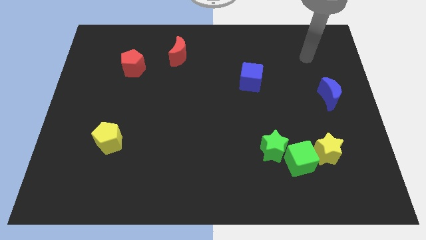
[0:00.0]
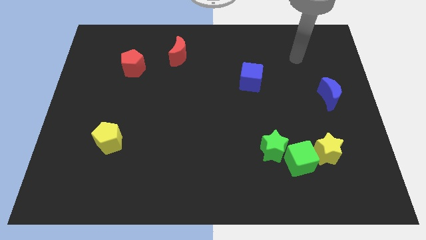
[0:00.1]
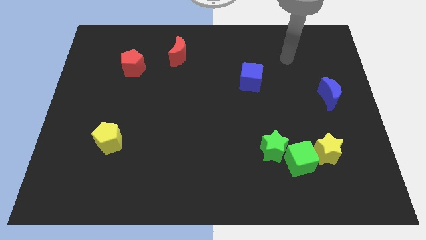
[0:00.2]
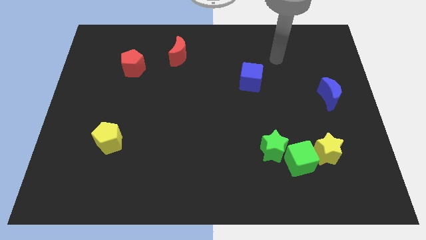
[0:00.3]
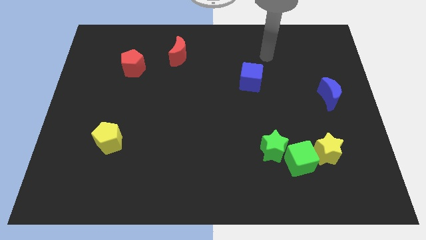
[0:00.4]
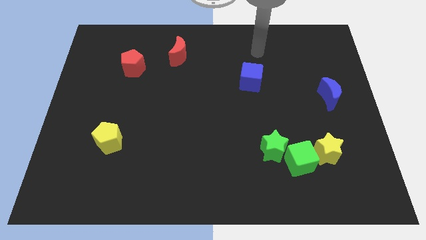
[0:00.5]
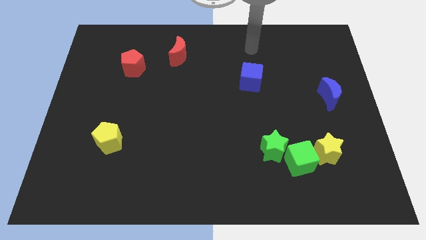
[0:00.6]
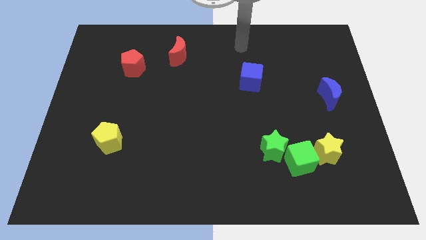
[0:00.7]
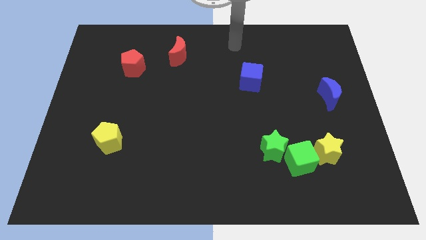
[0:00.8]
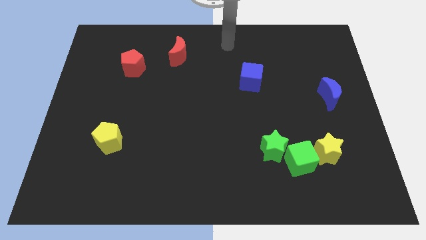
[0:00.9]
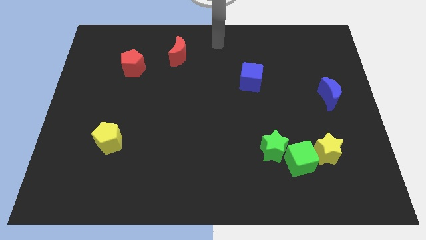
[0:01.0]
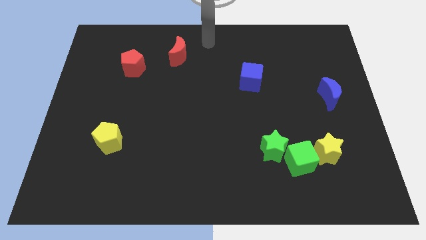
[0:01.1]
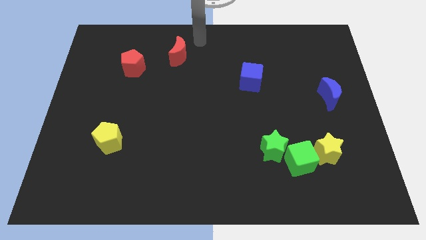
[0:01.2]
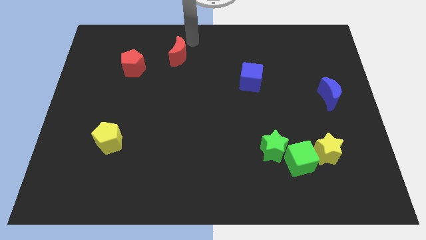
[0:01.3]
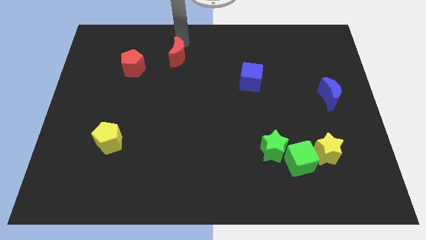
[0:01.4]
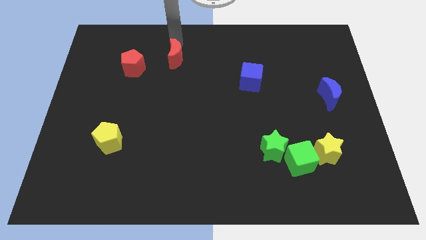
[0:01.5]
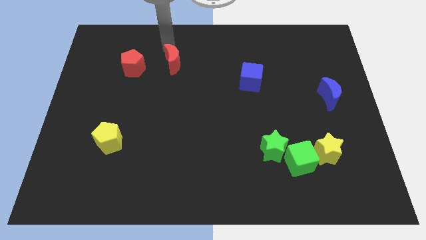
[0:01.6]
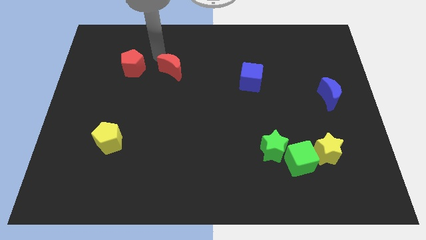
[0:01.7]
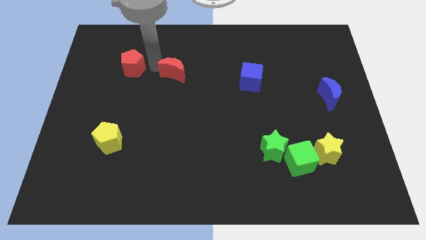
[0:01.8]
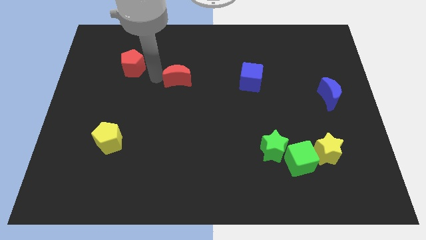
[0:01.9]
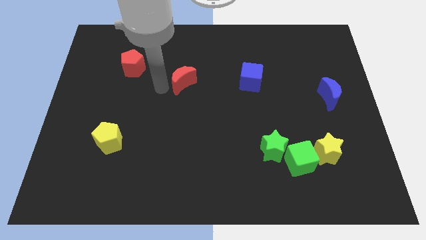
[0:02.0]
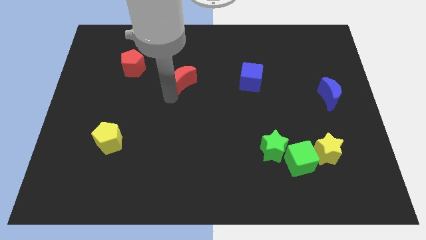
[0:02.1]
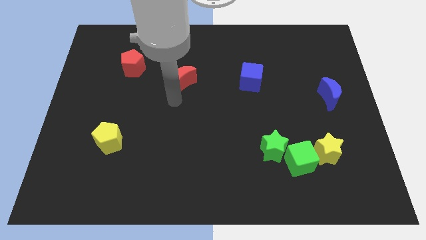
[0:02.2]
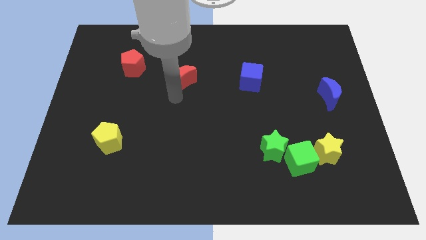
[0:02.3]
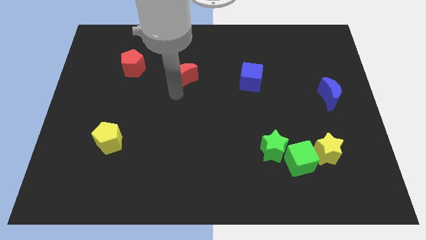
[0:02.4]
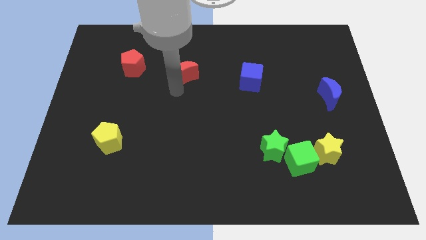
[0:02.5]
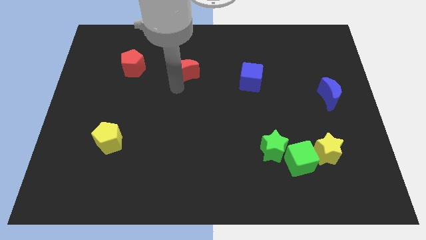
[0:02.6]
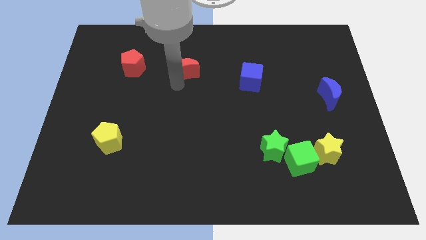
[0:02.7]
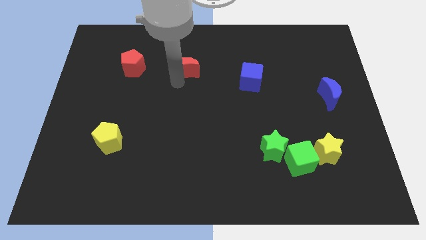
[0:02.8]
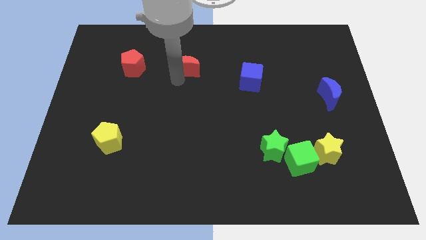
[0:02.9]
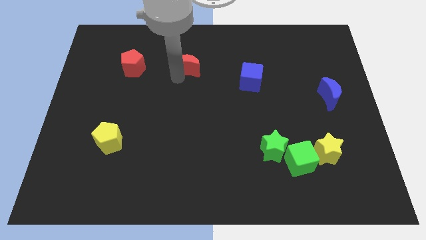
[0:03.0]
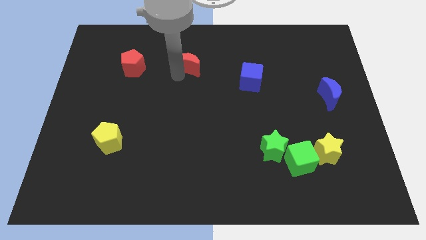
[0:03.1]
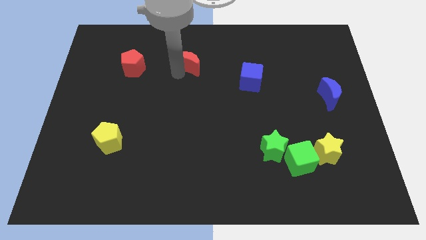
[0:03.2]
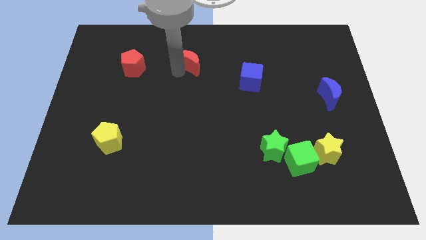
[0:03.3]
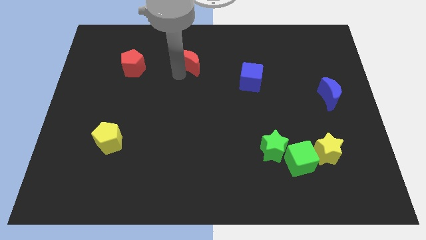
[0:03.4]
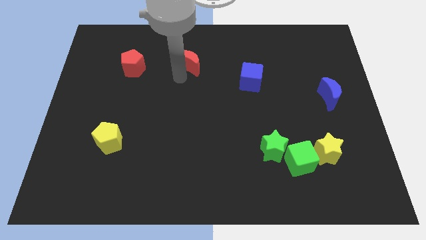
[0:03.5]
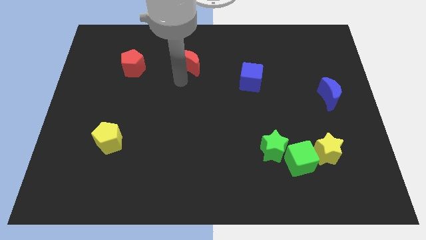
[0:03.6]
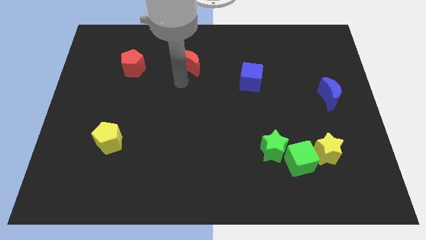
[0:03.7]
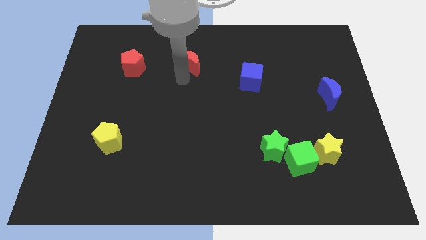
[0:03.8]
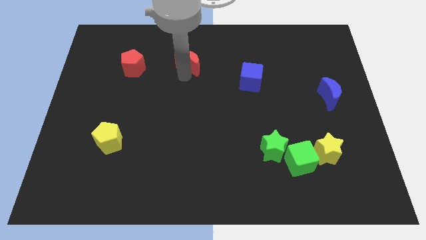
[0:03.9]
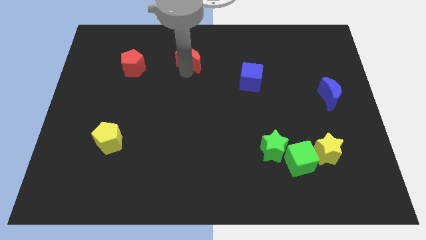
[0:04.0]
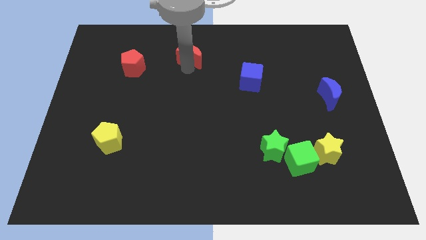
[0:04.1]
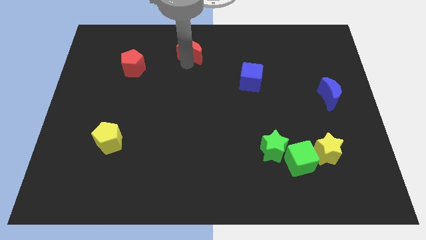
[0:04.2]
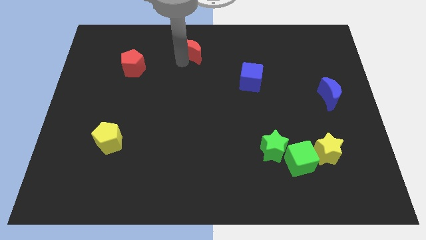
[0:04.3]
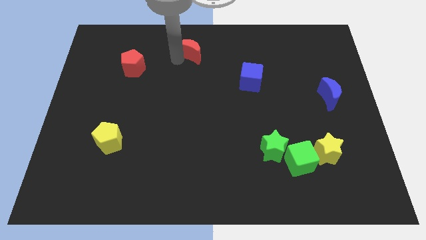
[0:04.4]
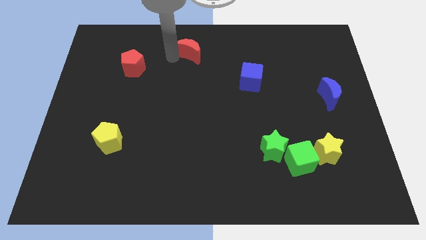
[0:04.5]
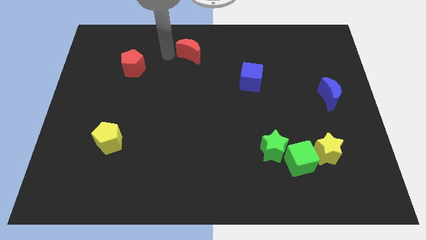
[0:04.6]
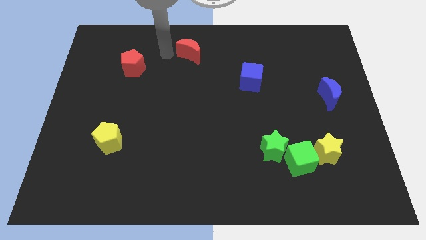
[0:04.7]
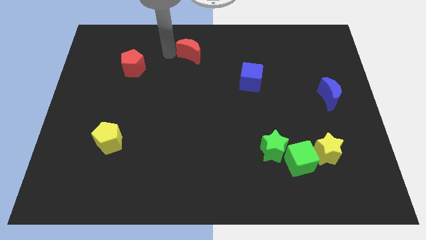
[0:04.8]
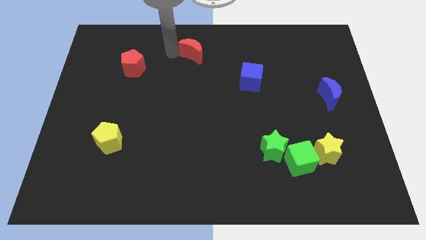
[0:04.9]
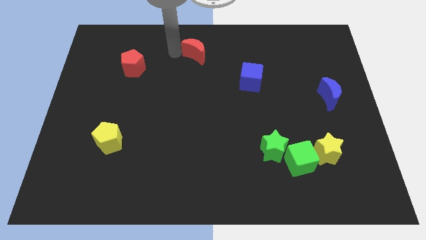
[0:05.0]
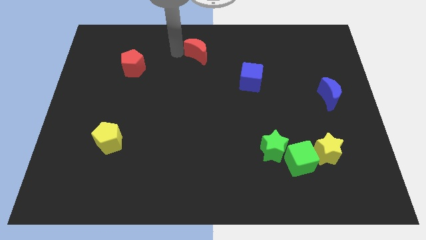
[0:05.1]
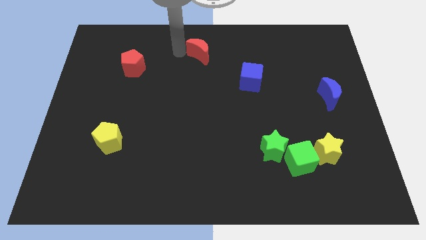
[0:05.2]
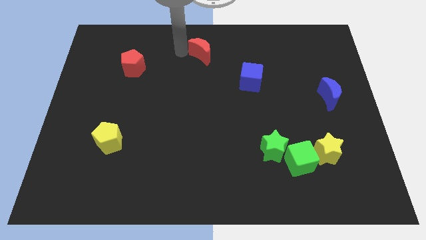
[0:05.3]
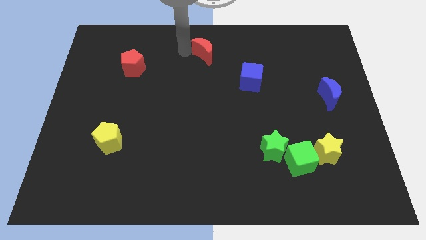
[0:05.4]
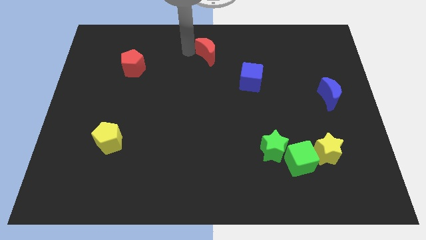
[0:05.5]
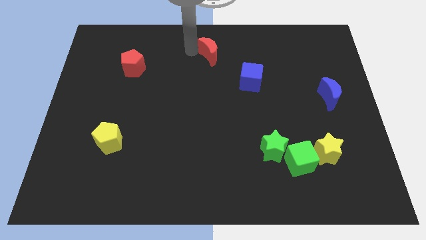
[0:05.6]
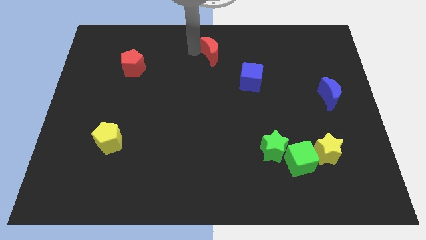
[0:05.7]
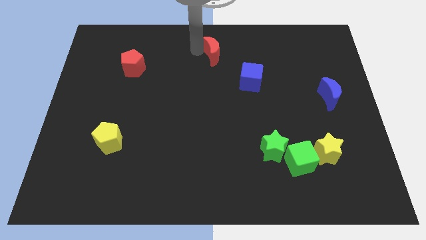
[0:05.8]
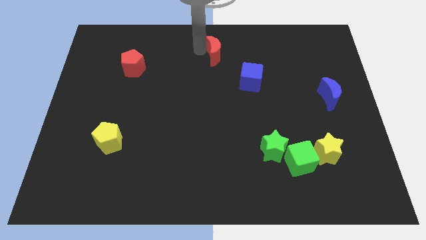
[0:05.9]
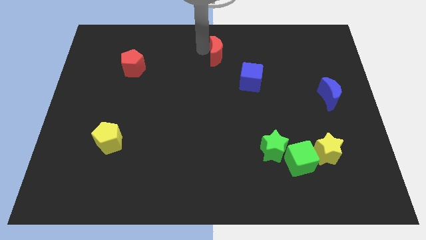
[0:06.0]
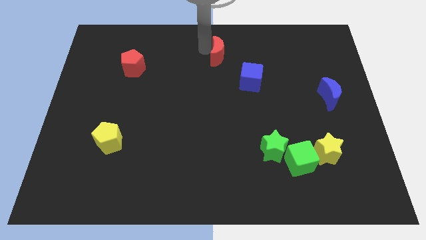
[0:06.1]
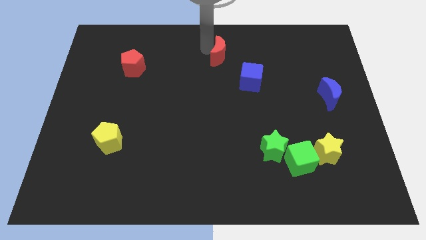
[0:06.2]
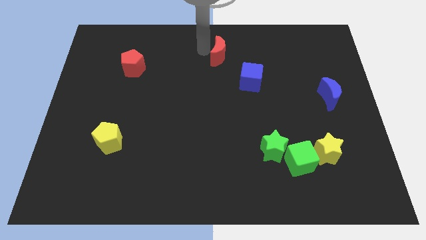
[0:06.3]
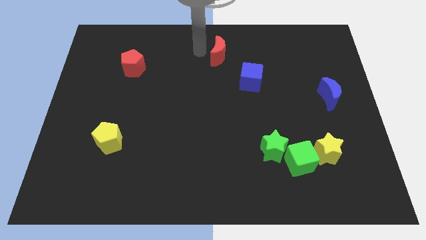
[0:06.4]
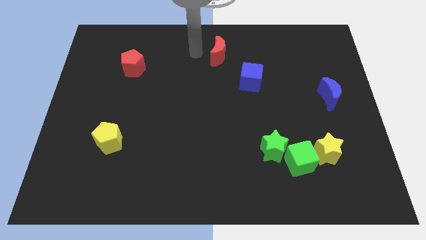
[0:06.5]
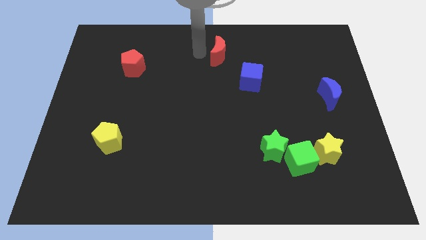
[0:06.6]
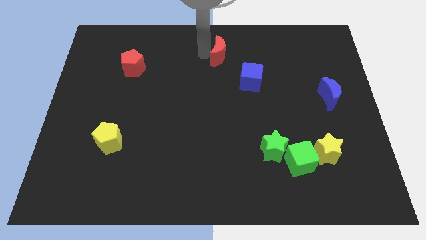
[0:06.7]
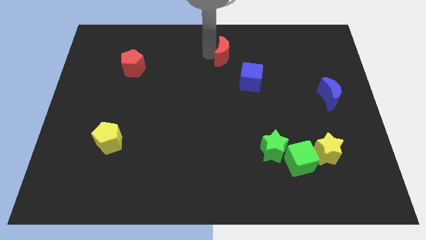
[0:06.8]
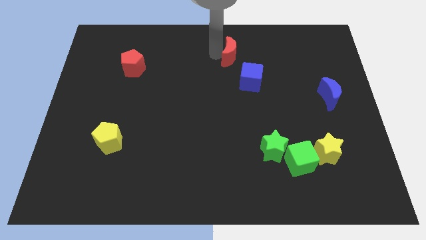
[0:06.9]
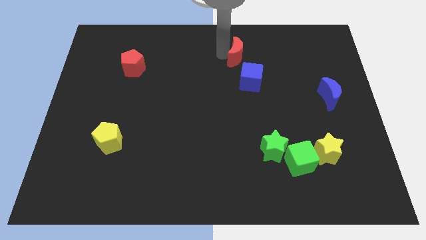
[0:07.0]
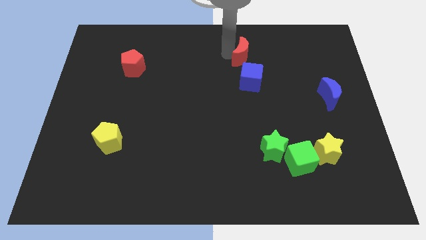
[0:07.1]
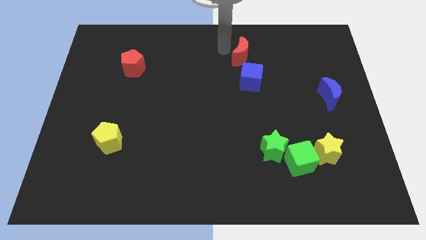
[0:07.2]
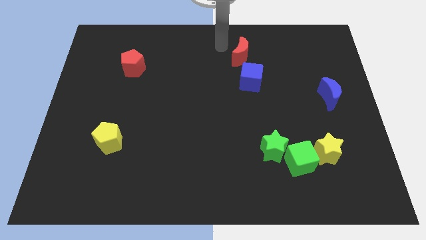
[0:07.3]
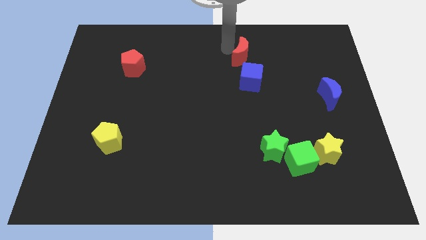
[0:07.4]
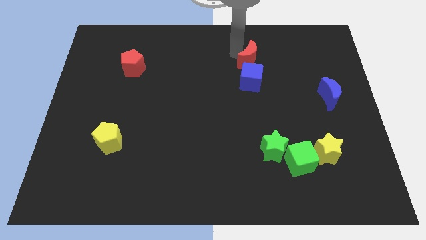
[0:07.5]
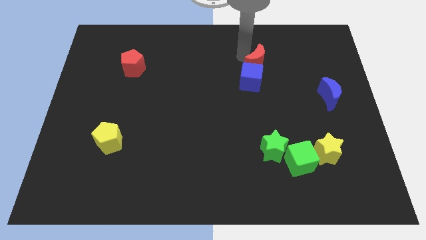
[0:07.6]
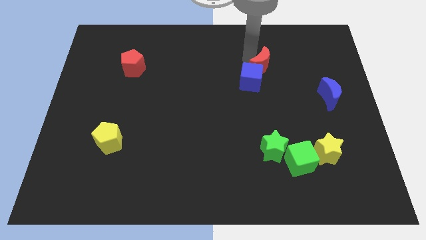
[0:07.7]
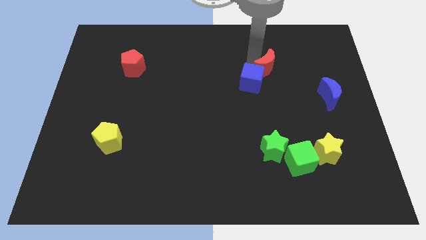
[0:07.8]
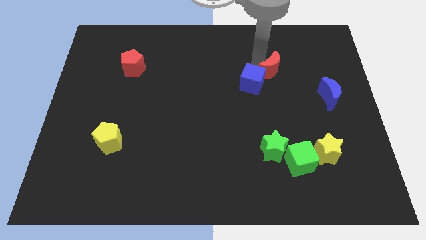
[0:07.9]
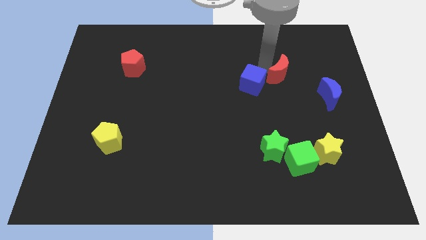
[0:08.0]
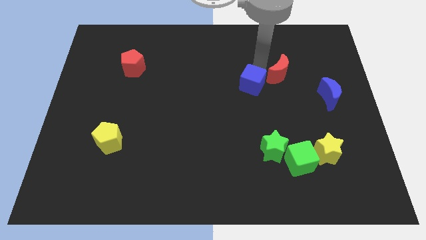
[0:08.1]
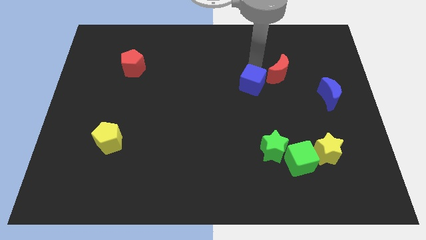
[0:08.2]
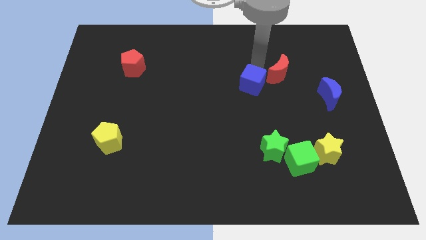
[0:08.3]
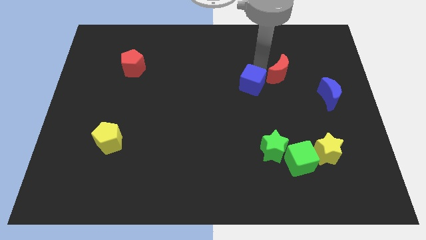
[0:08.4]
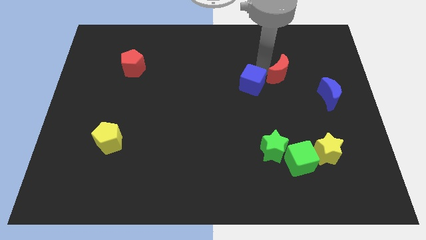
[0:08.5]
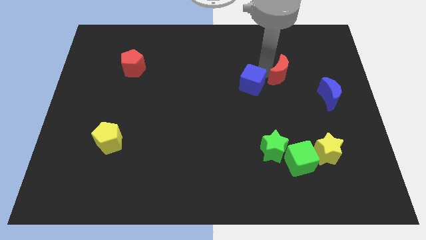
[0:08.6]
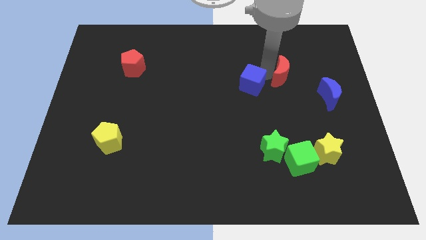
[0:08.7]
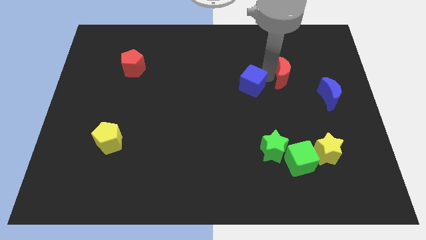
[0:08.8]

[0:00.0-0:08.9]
push the red moon diagonally up and to the left of the blue moon
